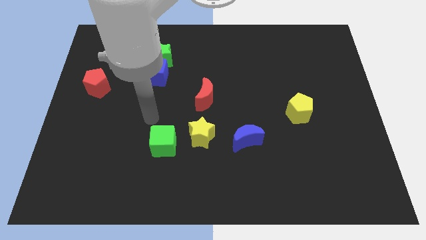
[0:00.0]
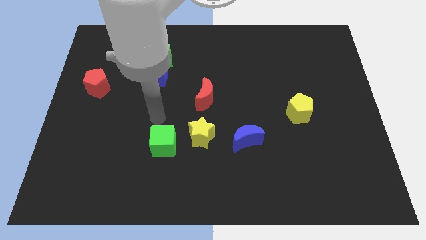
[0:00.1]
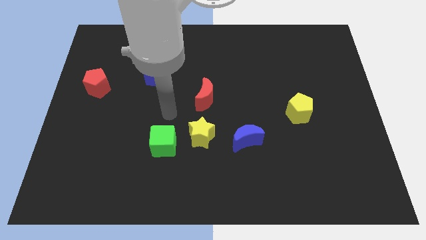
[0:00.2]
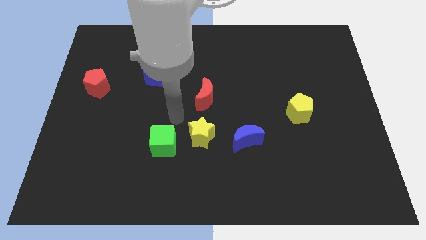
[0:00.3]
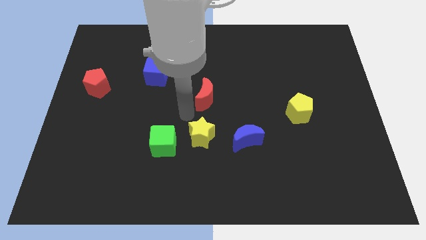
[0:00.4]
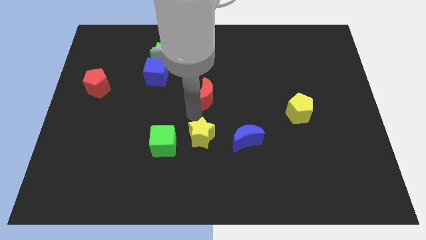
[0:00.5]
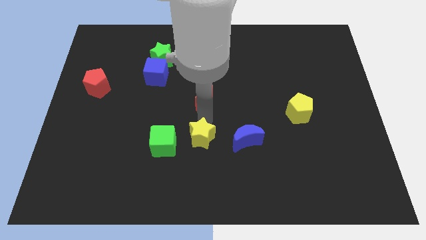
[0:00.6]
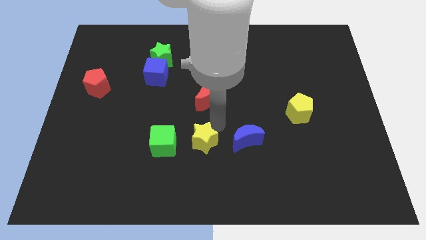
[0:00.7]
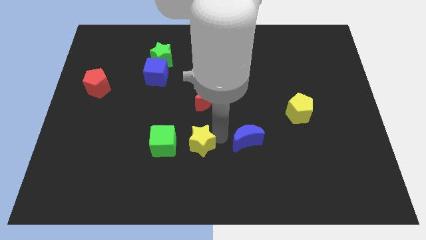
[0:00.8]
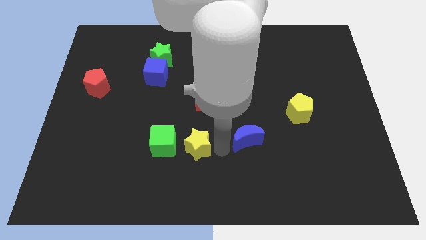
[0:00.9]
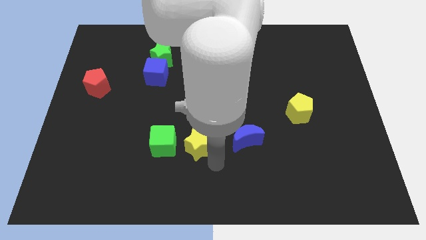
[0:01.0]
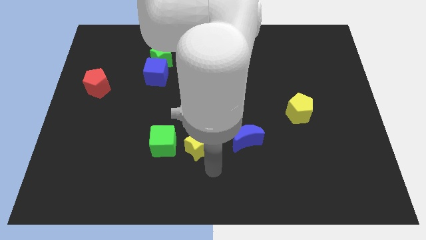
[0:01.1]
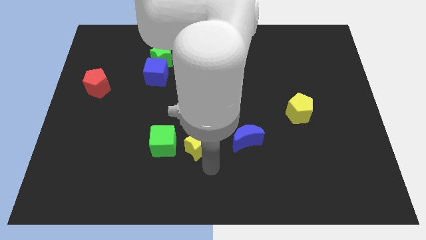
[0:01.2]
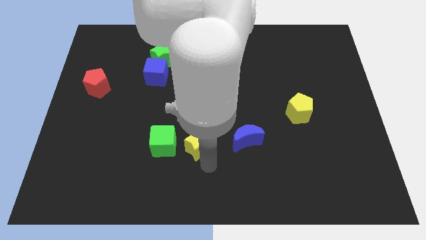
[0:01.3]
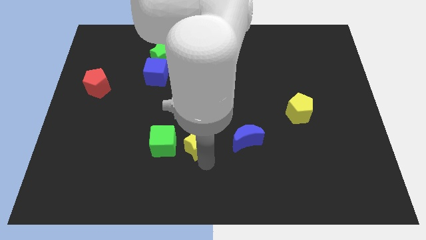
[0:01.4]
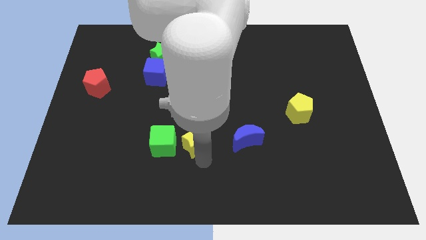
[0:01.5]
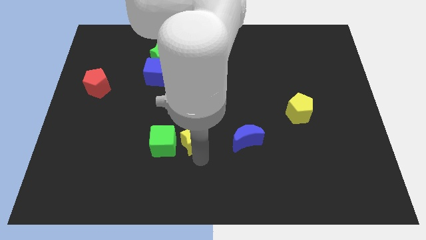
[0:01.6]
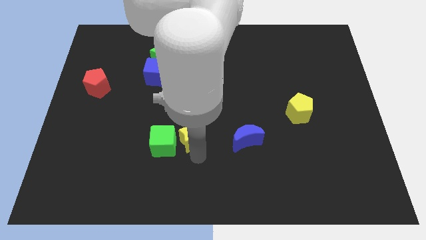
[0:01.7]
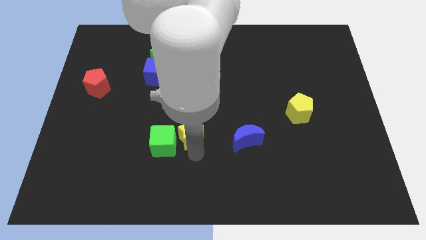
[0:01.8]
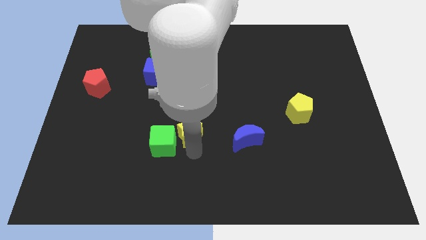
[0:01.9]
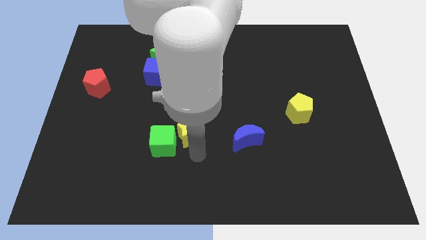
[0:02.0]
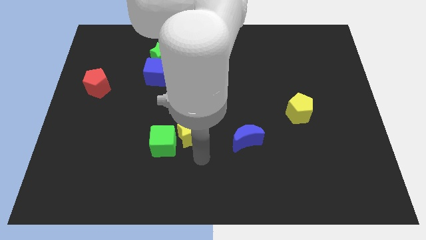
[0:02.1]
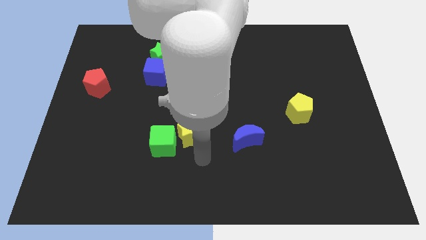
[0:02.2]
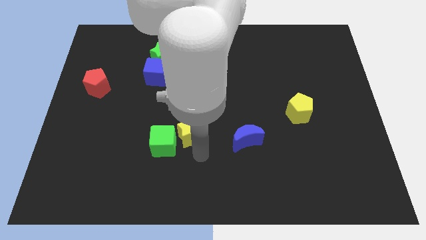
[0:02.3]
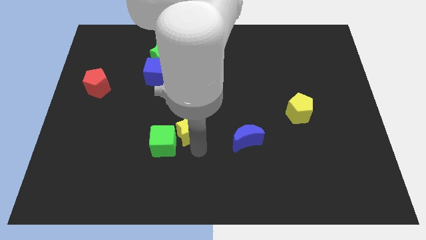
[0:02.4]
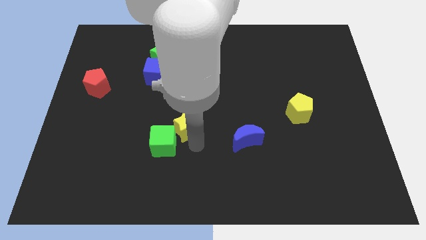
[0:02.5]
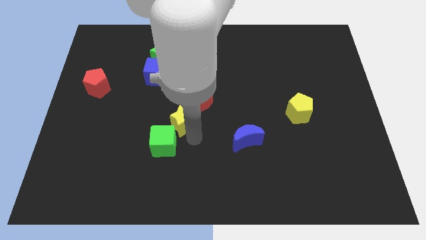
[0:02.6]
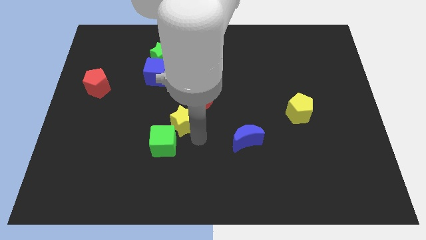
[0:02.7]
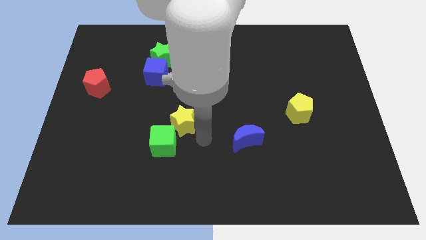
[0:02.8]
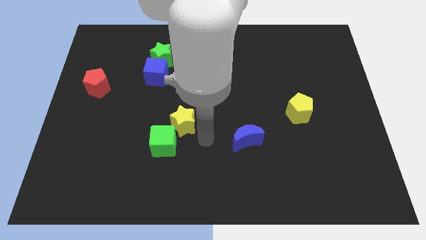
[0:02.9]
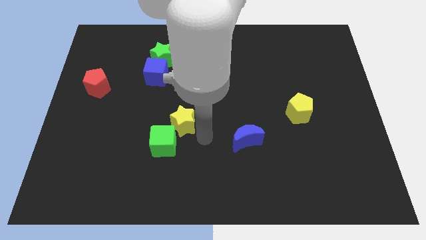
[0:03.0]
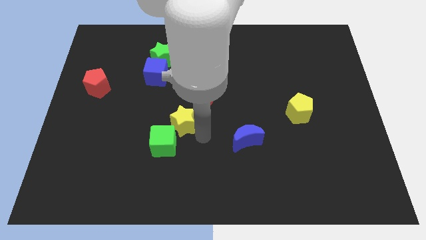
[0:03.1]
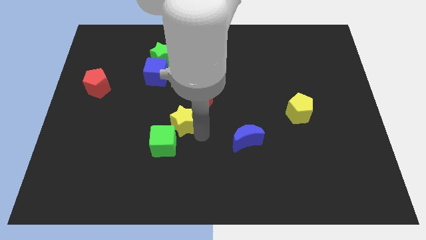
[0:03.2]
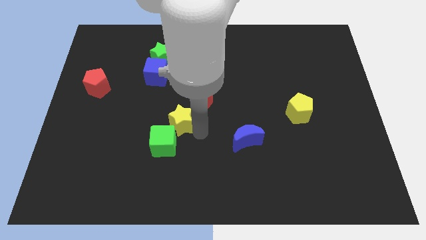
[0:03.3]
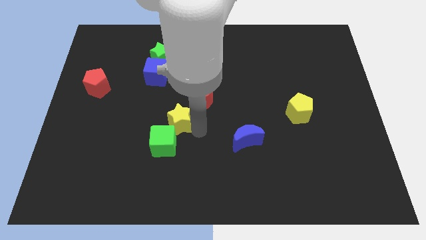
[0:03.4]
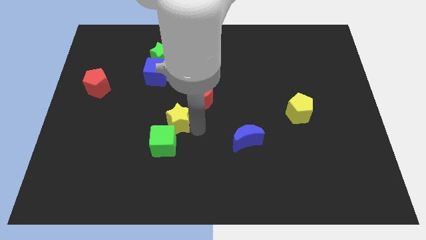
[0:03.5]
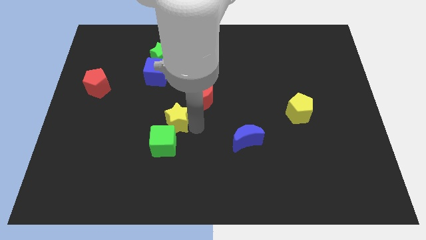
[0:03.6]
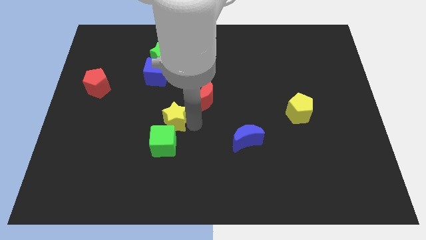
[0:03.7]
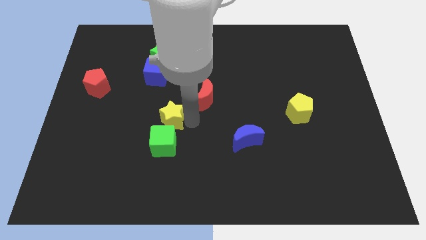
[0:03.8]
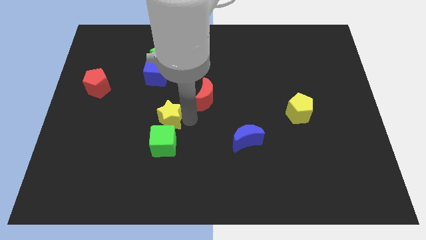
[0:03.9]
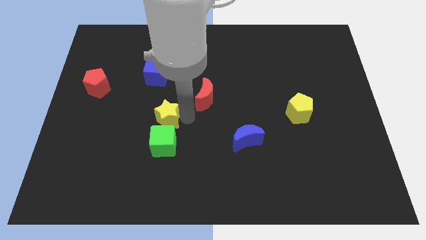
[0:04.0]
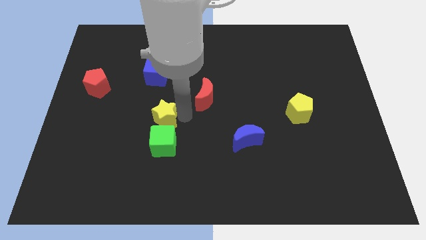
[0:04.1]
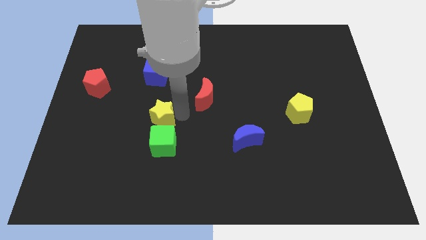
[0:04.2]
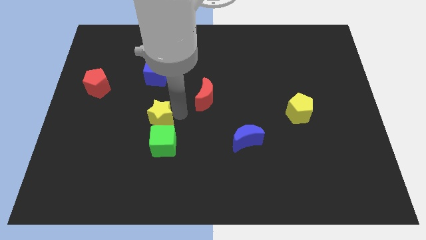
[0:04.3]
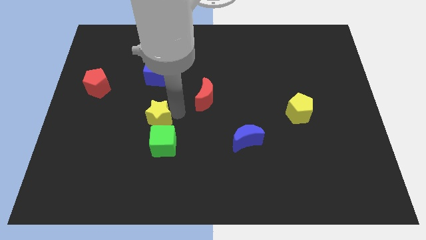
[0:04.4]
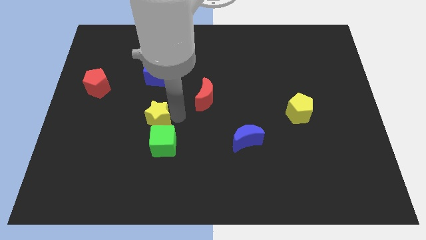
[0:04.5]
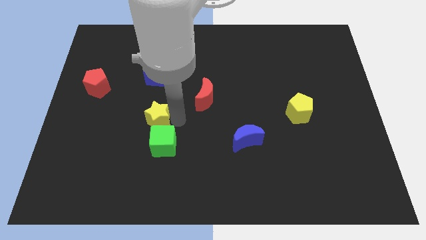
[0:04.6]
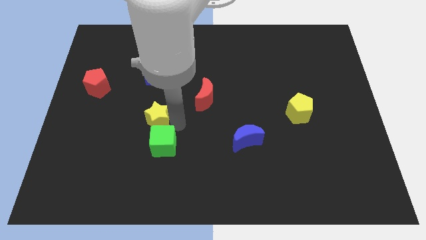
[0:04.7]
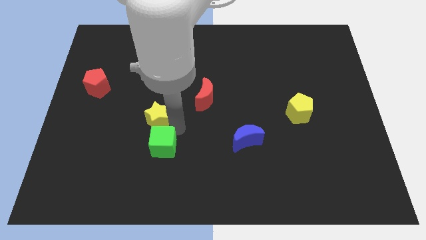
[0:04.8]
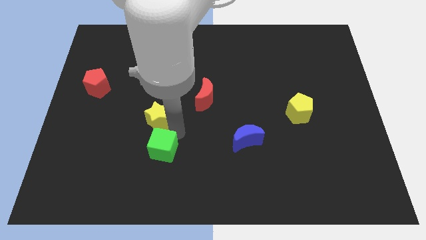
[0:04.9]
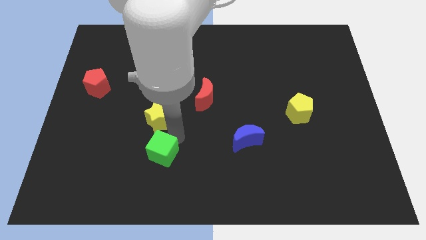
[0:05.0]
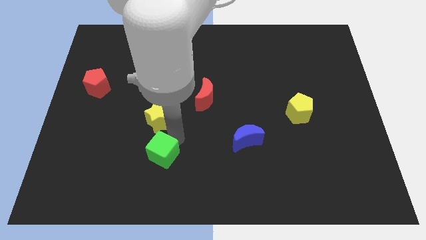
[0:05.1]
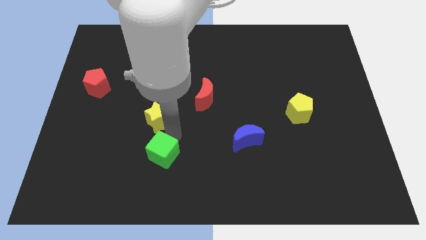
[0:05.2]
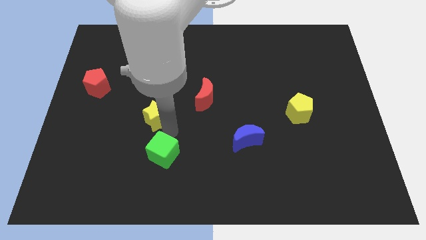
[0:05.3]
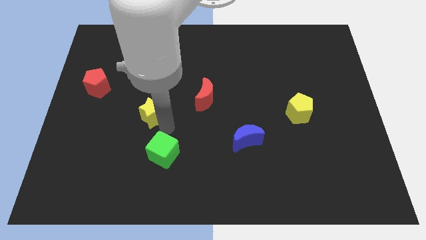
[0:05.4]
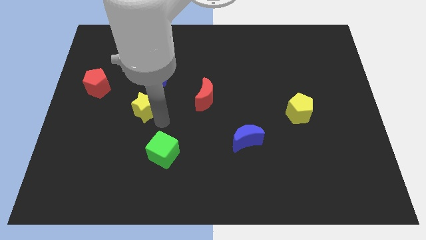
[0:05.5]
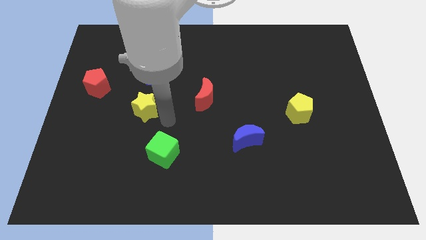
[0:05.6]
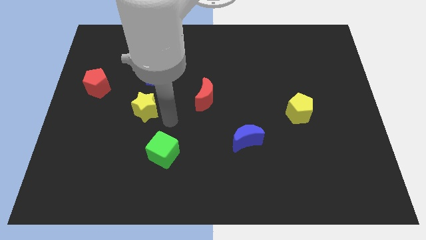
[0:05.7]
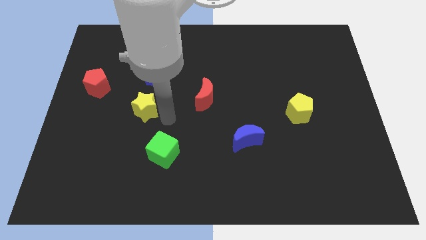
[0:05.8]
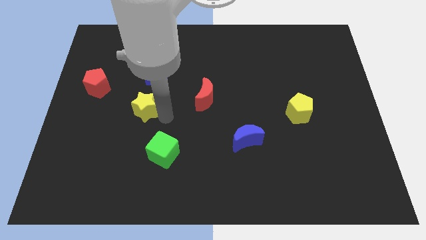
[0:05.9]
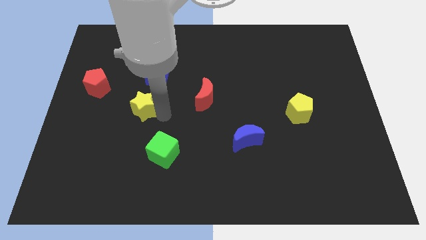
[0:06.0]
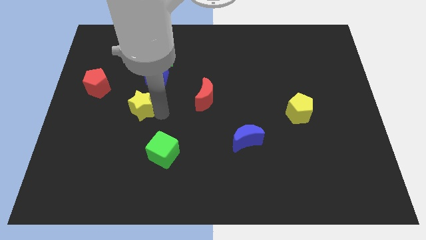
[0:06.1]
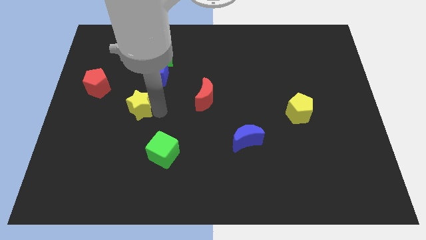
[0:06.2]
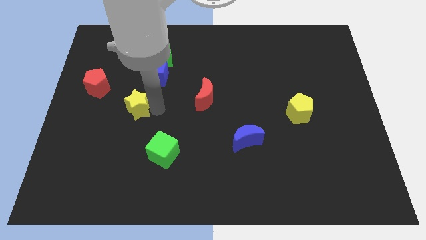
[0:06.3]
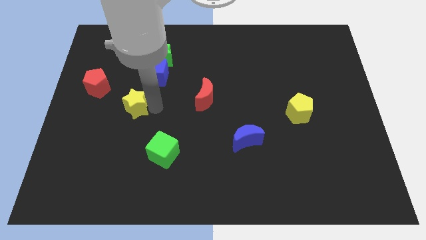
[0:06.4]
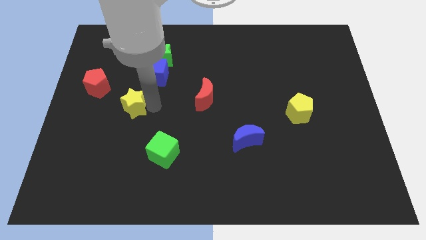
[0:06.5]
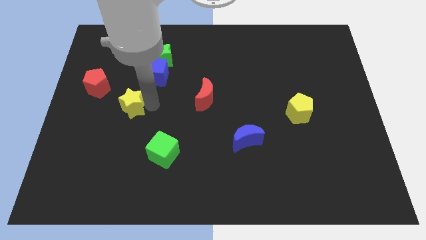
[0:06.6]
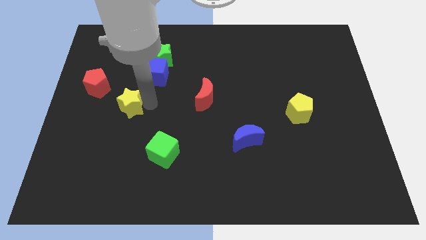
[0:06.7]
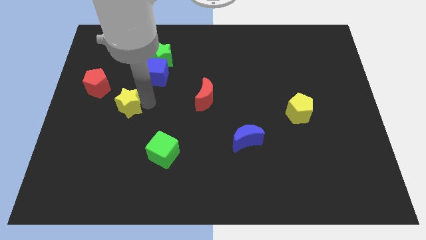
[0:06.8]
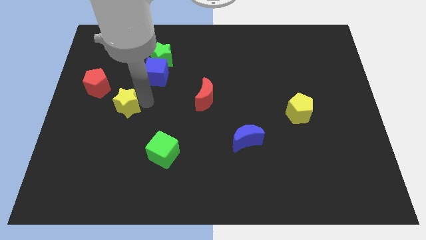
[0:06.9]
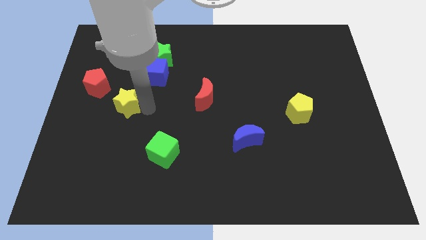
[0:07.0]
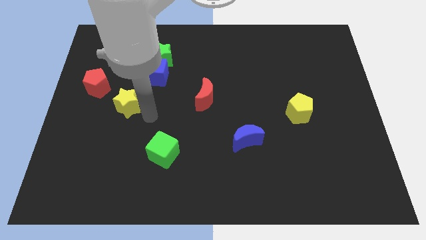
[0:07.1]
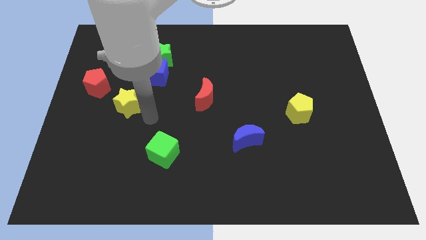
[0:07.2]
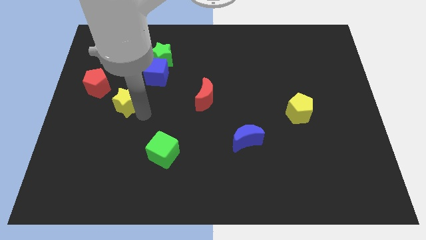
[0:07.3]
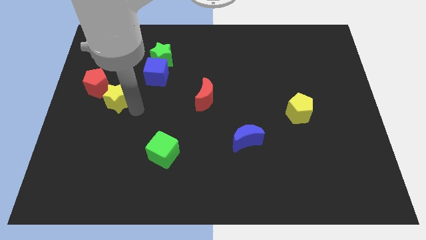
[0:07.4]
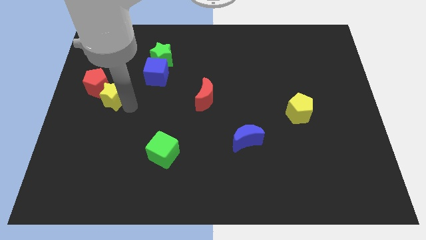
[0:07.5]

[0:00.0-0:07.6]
put the yellow star to the red pentagon

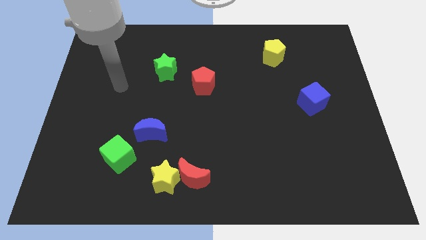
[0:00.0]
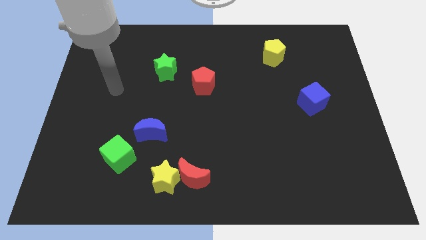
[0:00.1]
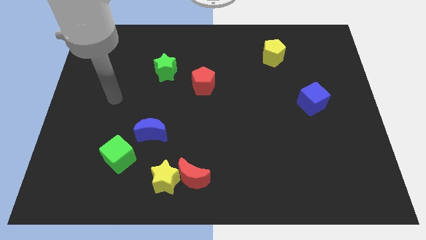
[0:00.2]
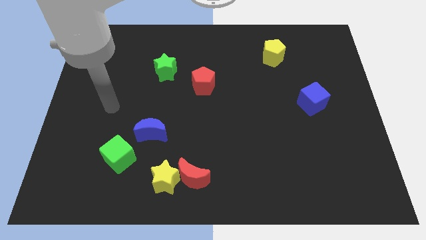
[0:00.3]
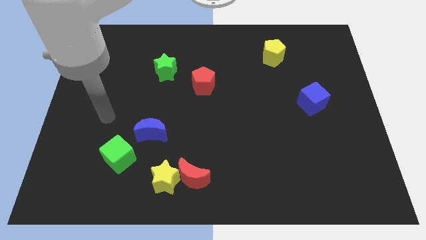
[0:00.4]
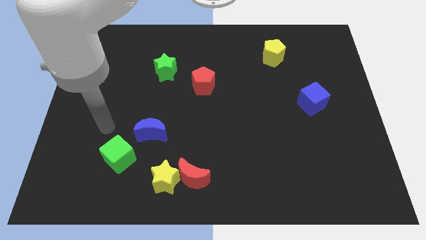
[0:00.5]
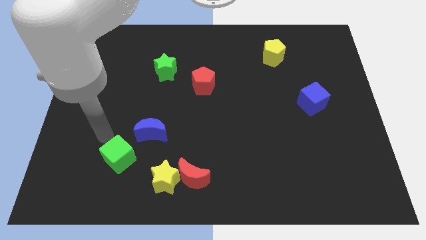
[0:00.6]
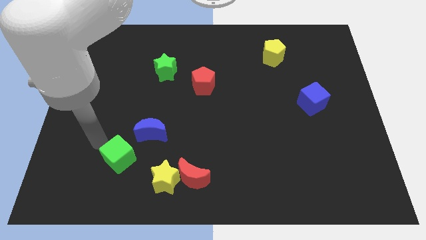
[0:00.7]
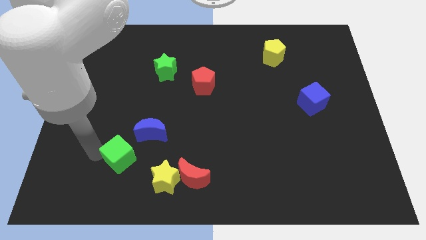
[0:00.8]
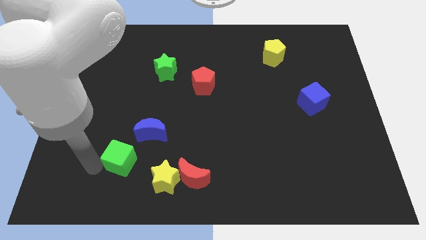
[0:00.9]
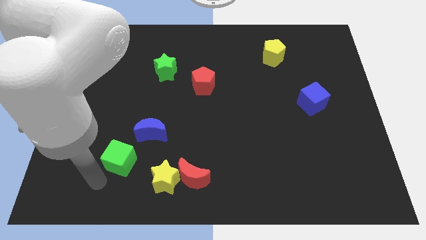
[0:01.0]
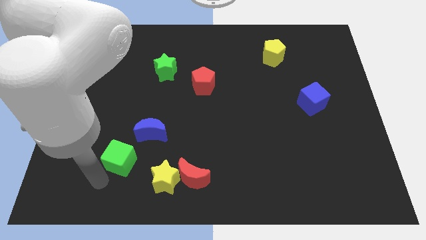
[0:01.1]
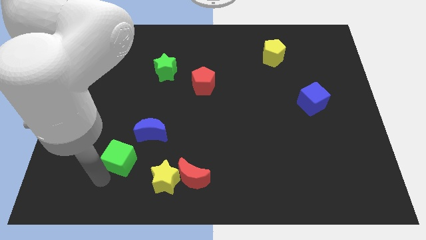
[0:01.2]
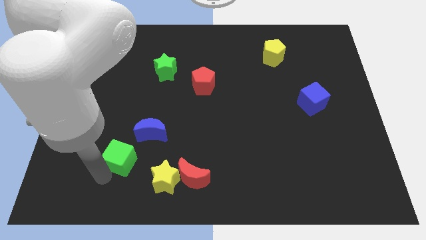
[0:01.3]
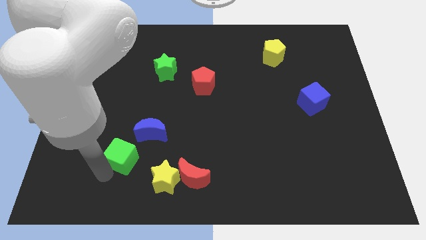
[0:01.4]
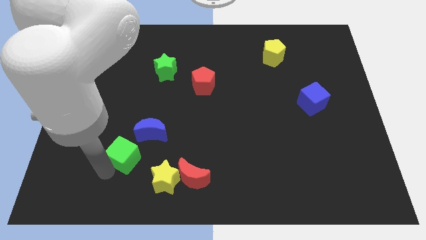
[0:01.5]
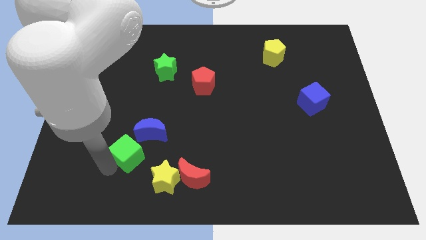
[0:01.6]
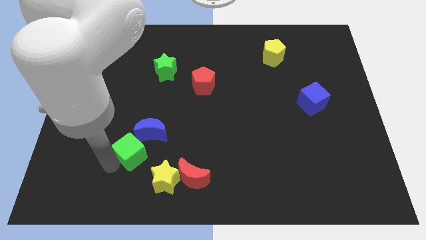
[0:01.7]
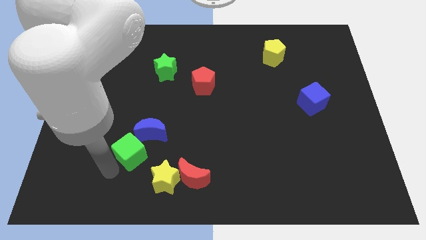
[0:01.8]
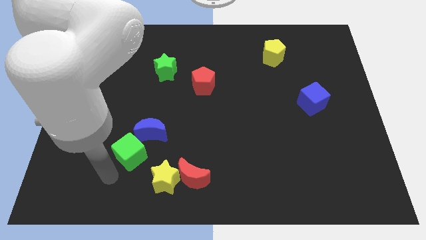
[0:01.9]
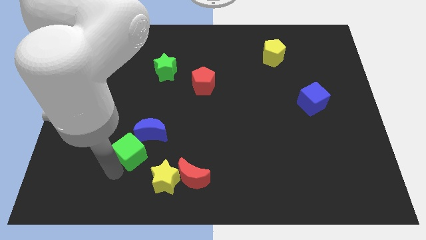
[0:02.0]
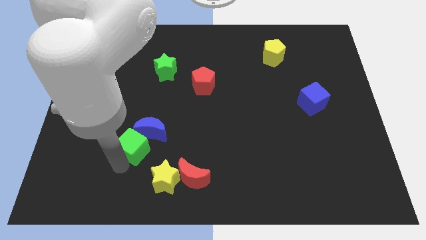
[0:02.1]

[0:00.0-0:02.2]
push the green cube close to the blue moon
